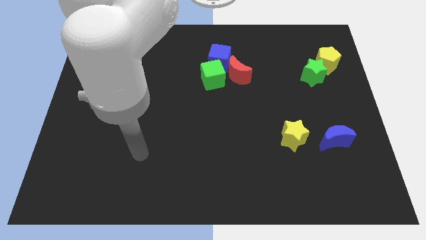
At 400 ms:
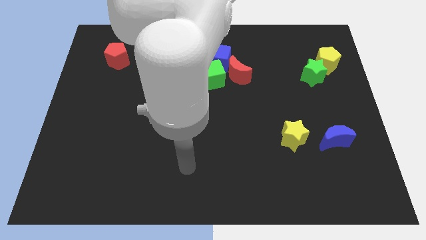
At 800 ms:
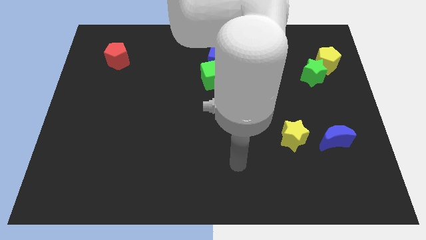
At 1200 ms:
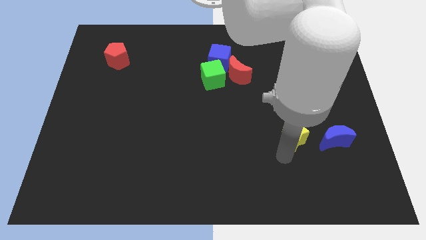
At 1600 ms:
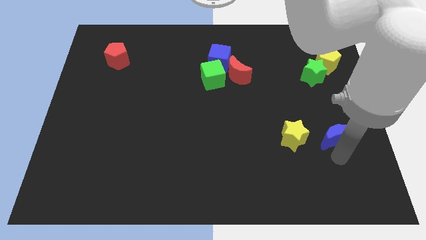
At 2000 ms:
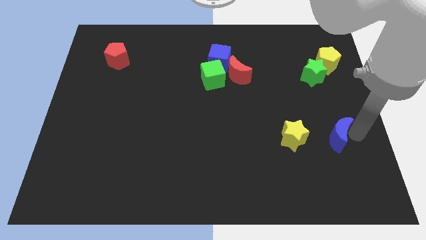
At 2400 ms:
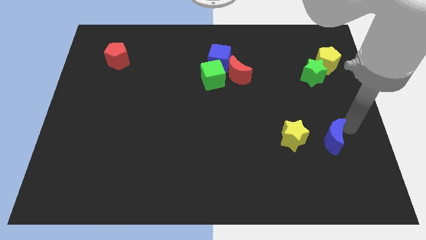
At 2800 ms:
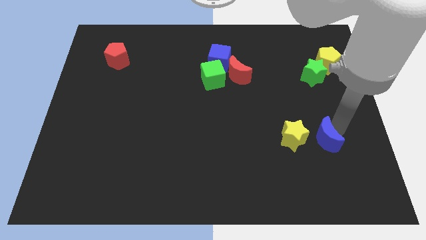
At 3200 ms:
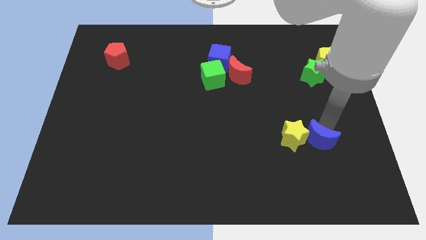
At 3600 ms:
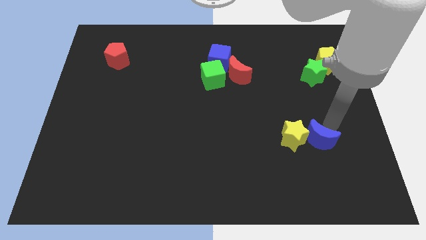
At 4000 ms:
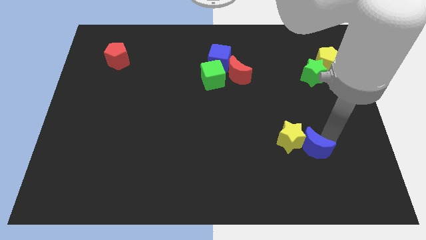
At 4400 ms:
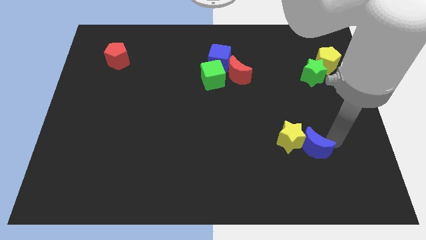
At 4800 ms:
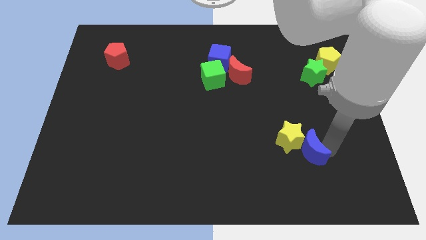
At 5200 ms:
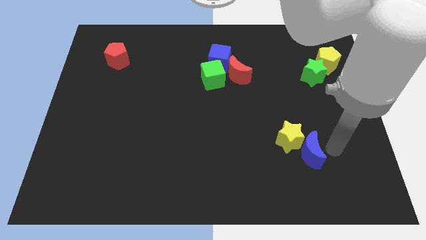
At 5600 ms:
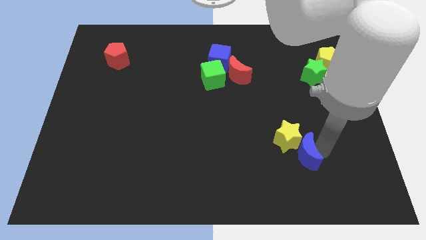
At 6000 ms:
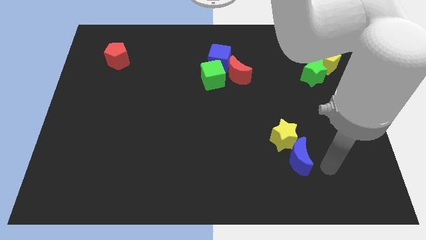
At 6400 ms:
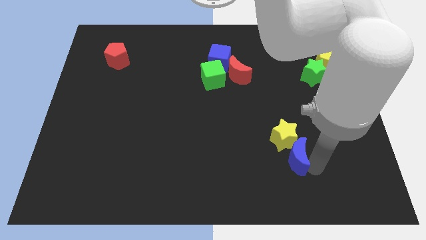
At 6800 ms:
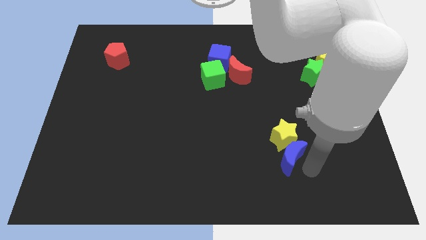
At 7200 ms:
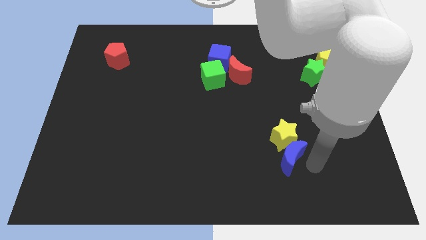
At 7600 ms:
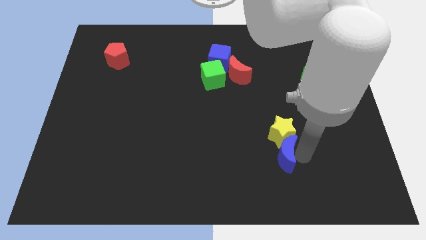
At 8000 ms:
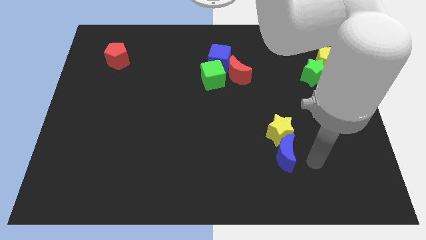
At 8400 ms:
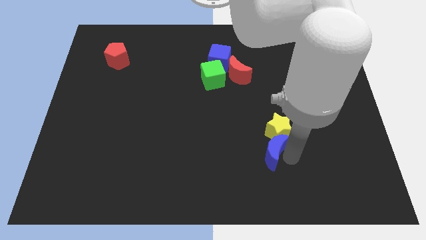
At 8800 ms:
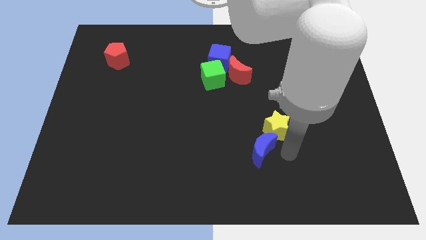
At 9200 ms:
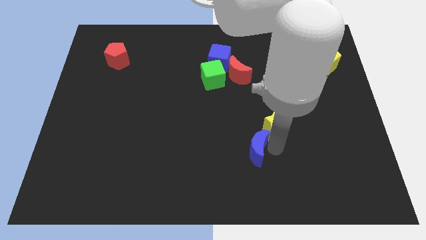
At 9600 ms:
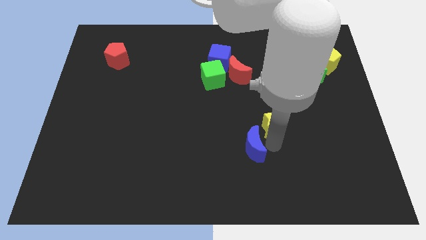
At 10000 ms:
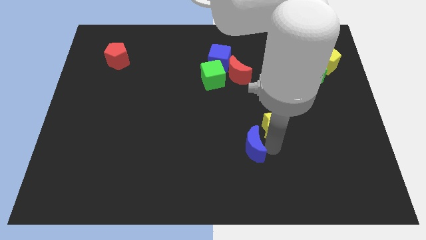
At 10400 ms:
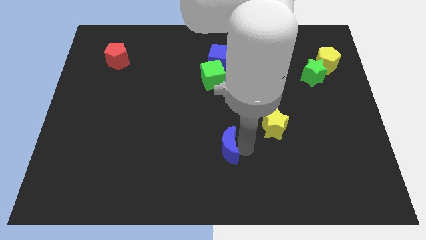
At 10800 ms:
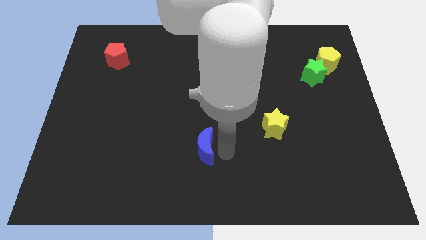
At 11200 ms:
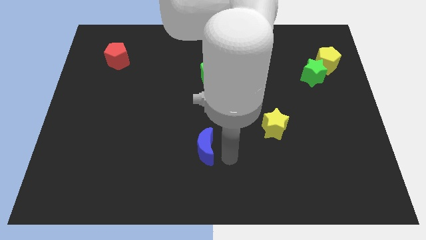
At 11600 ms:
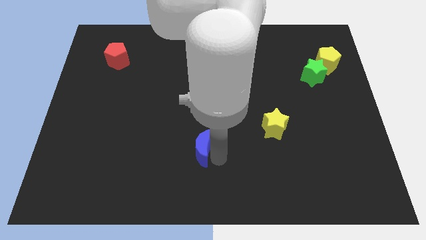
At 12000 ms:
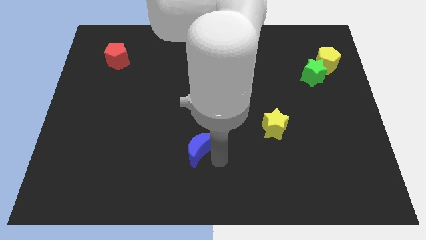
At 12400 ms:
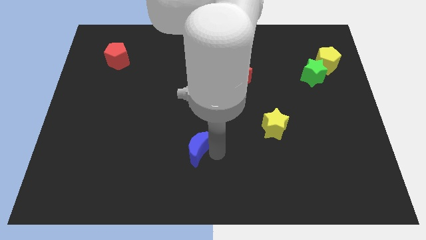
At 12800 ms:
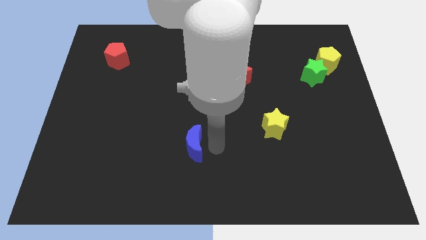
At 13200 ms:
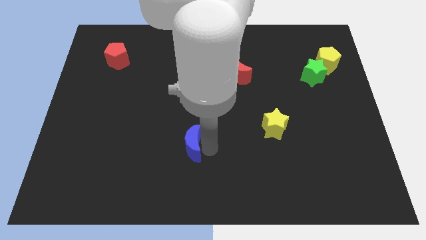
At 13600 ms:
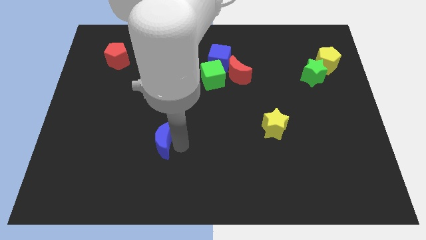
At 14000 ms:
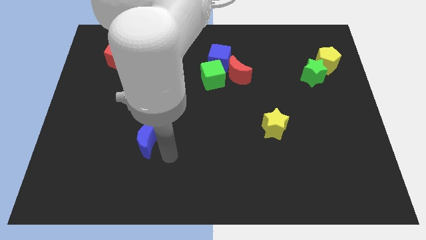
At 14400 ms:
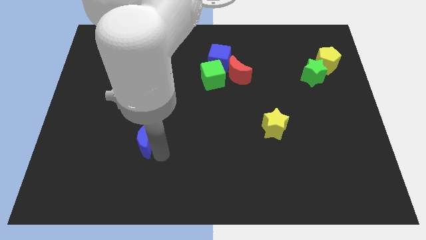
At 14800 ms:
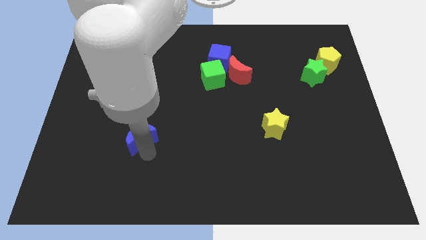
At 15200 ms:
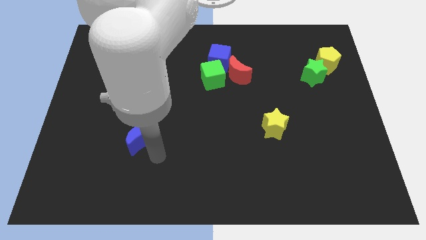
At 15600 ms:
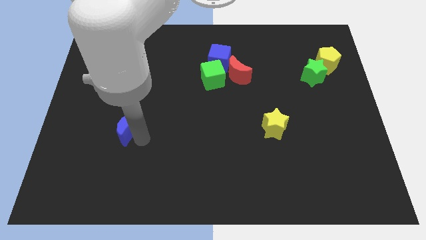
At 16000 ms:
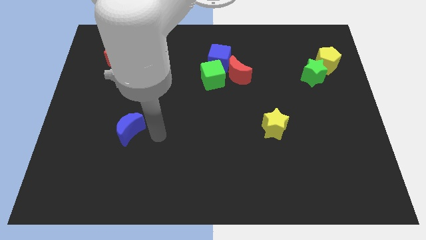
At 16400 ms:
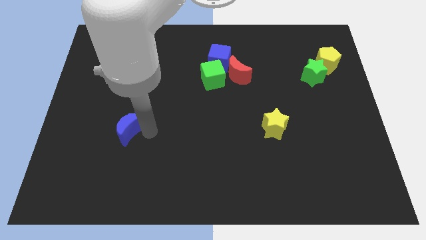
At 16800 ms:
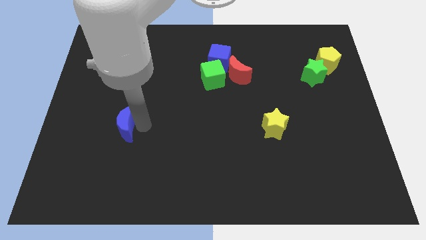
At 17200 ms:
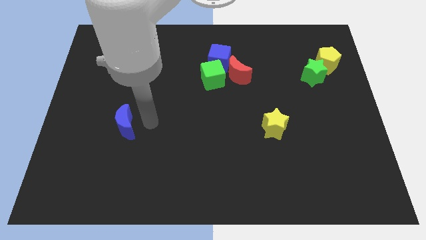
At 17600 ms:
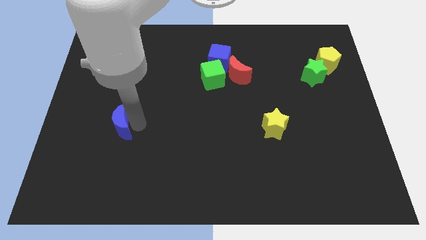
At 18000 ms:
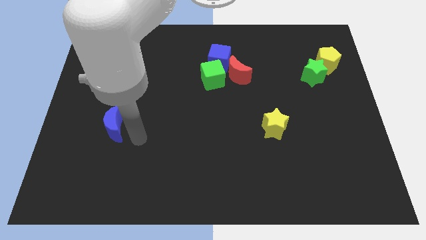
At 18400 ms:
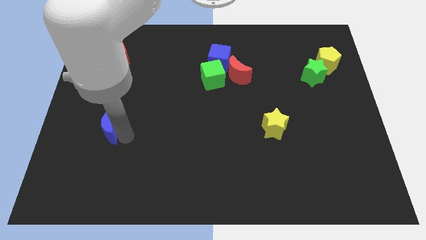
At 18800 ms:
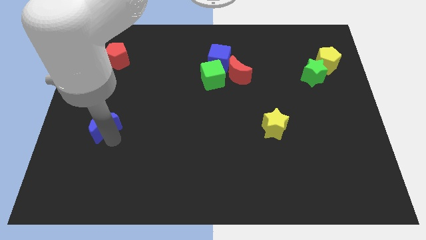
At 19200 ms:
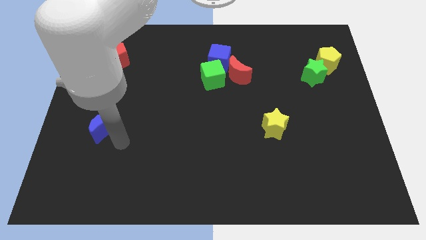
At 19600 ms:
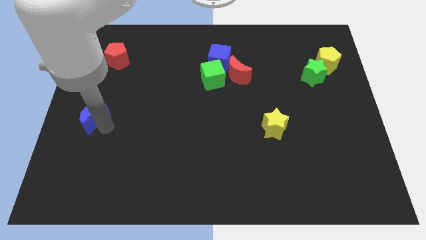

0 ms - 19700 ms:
slide the blue moon to the center left

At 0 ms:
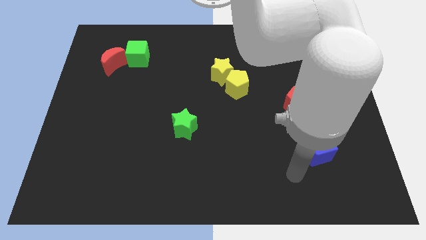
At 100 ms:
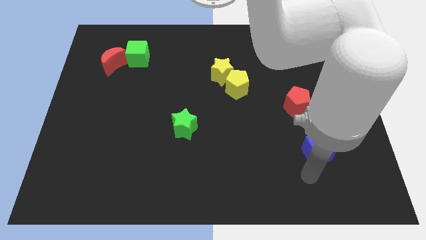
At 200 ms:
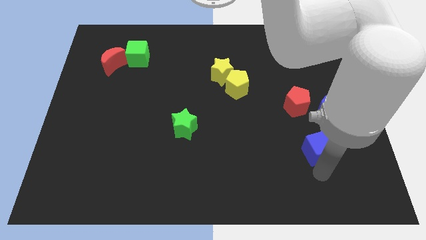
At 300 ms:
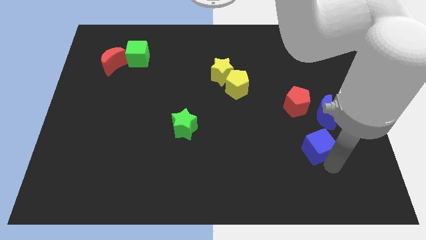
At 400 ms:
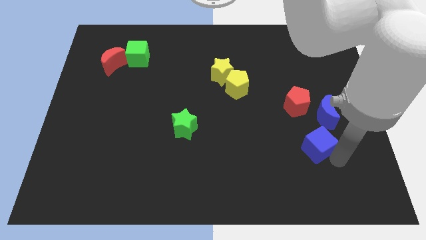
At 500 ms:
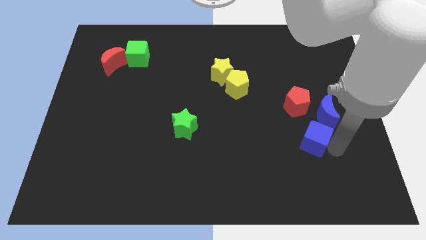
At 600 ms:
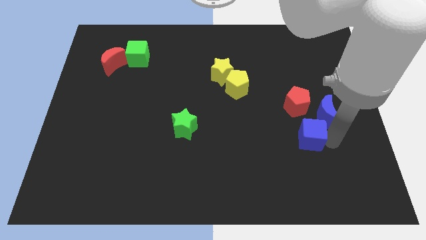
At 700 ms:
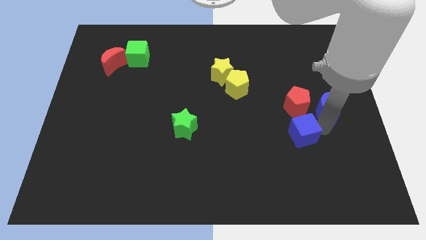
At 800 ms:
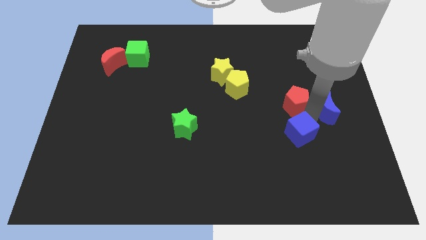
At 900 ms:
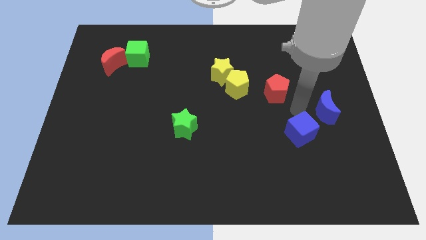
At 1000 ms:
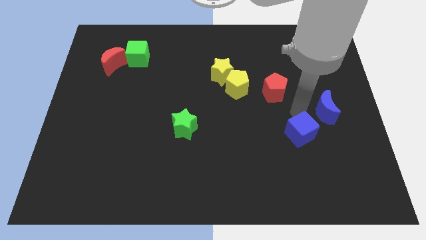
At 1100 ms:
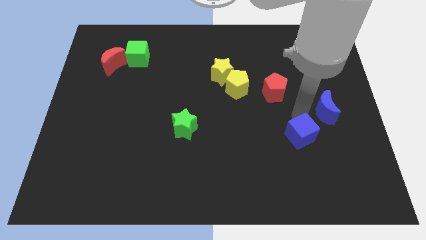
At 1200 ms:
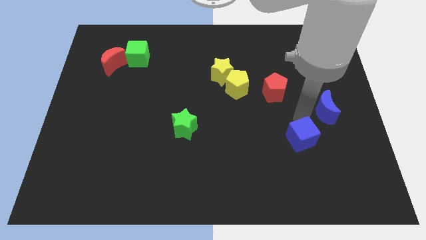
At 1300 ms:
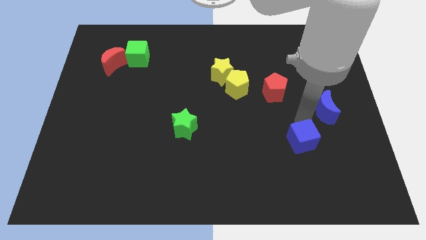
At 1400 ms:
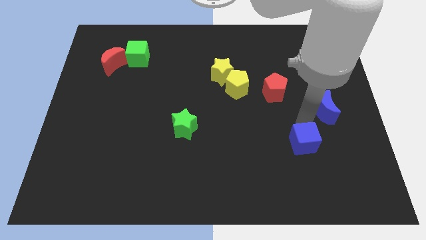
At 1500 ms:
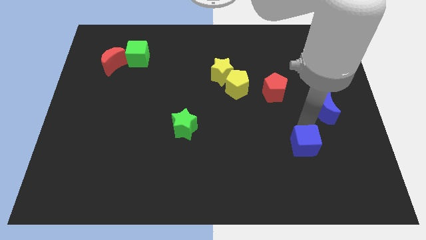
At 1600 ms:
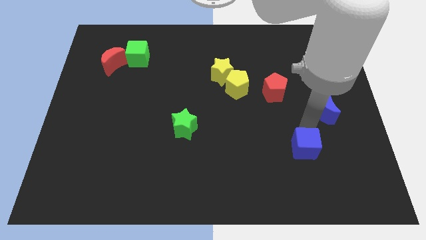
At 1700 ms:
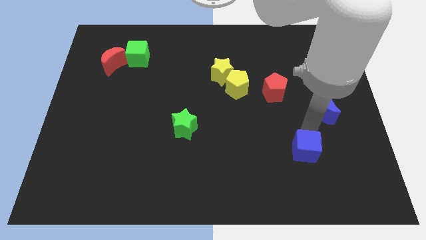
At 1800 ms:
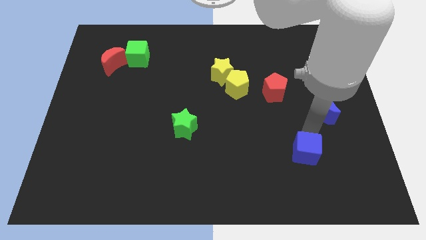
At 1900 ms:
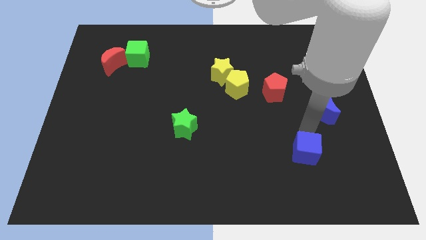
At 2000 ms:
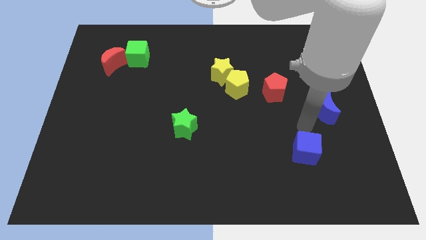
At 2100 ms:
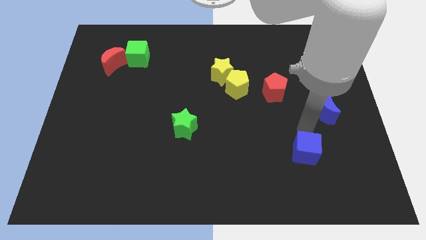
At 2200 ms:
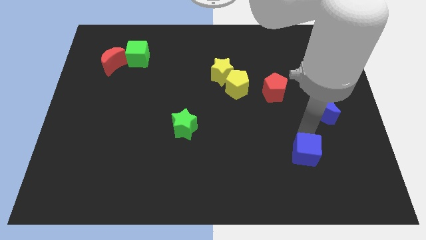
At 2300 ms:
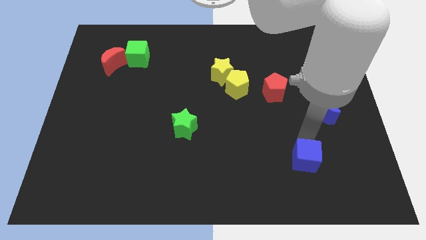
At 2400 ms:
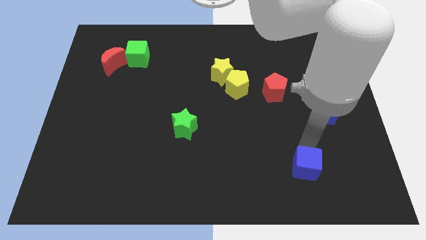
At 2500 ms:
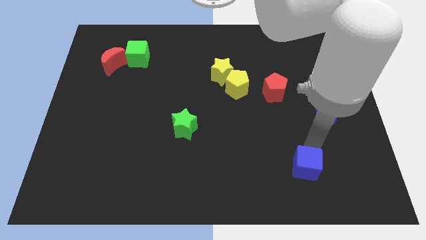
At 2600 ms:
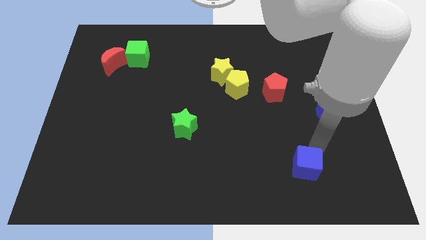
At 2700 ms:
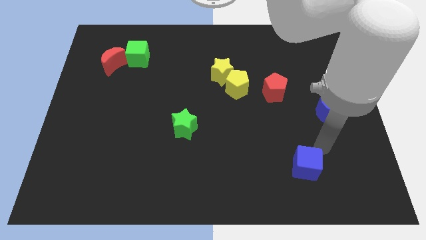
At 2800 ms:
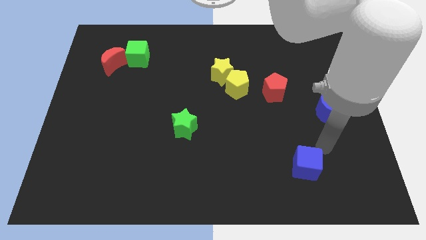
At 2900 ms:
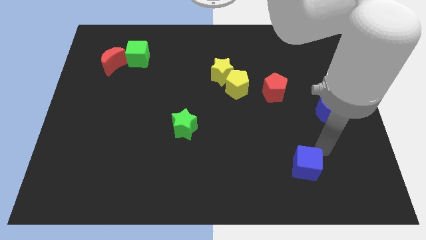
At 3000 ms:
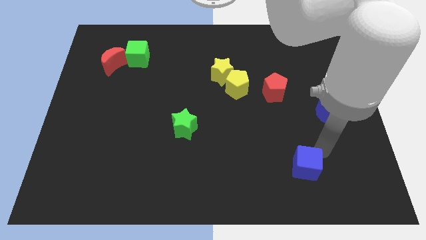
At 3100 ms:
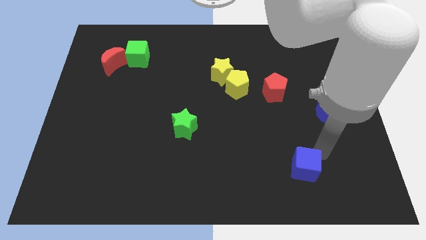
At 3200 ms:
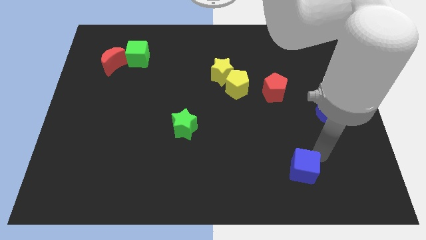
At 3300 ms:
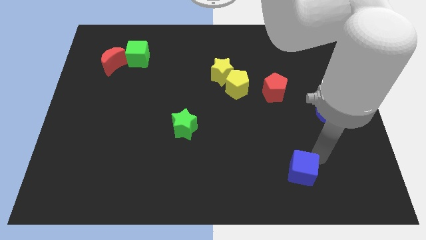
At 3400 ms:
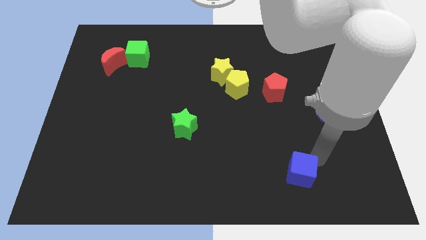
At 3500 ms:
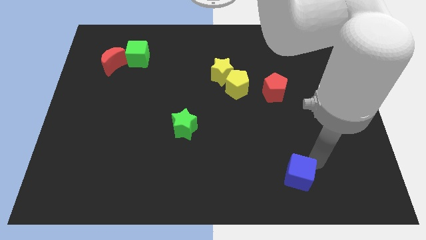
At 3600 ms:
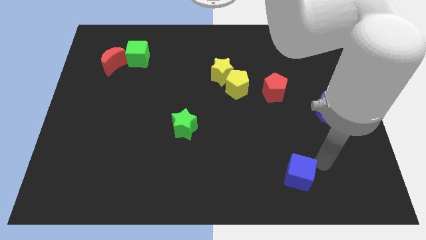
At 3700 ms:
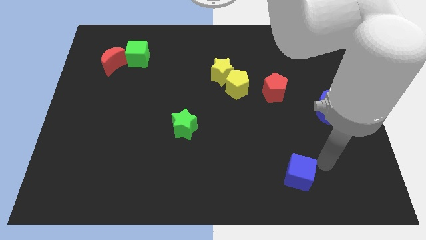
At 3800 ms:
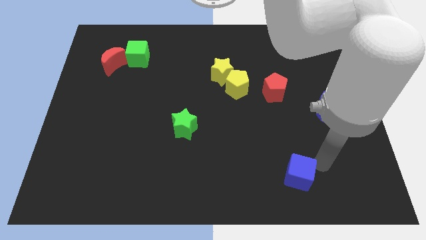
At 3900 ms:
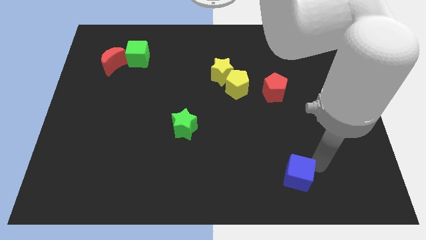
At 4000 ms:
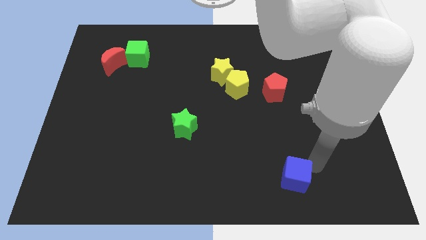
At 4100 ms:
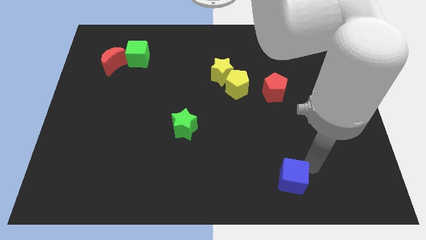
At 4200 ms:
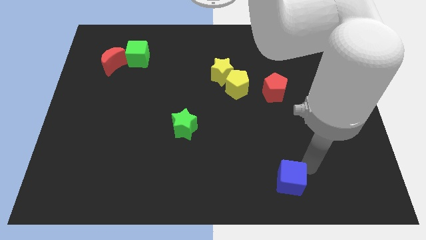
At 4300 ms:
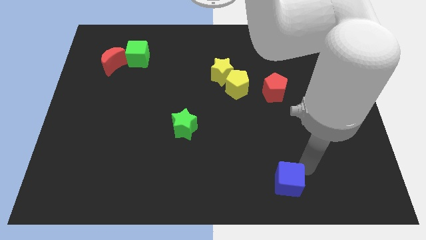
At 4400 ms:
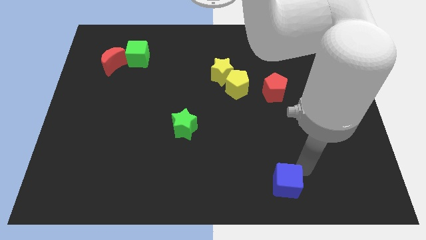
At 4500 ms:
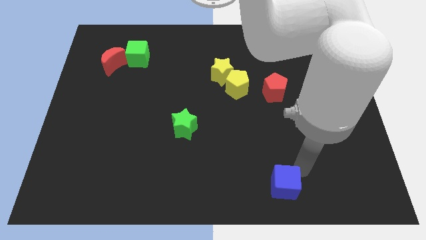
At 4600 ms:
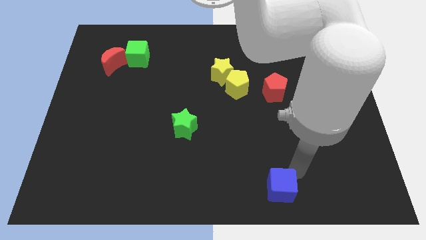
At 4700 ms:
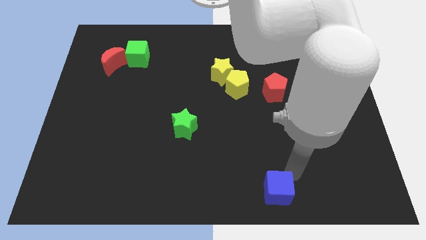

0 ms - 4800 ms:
push the blue cube to the bottom side
